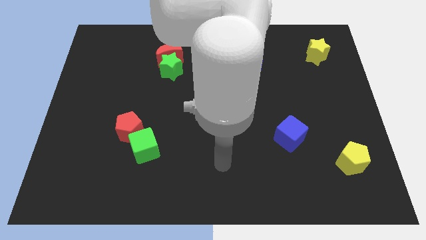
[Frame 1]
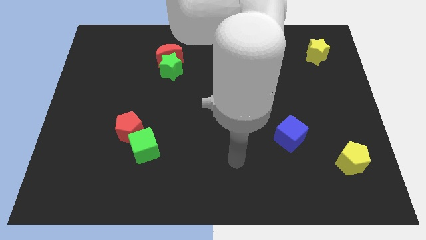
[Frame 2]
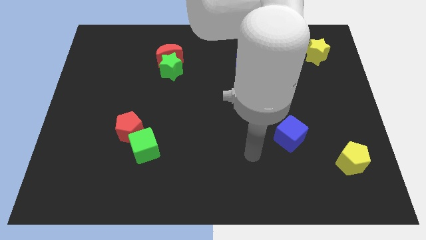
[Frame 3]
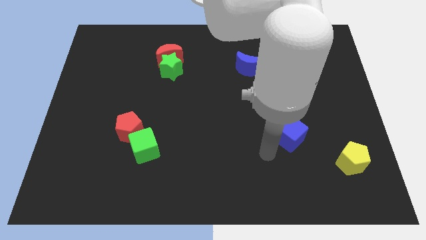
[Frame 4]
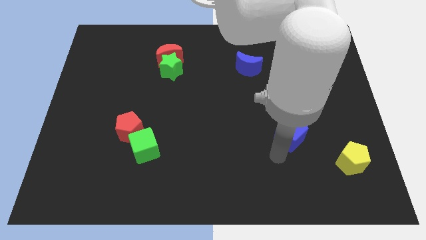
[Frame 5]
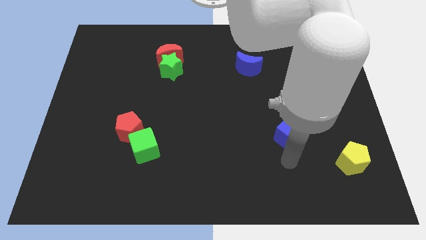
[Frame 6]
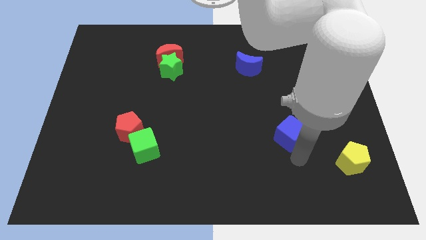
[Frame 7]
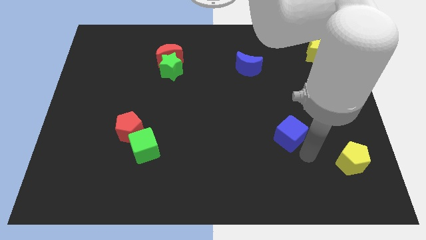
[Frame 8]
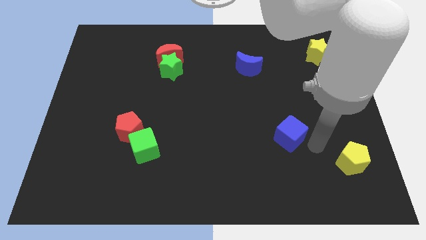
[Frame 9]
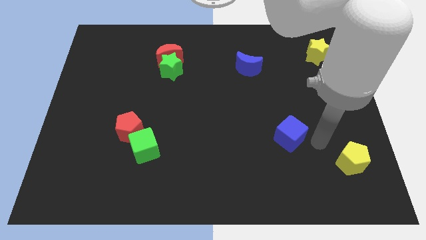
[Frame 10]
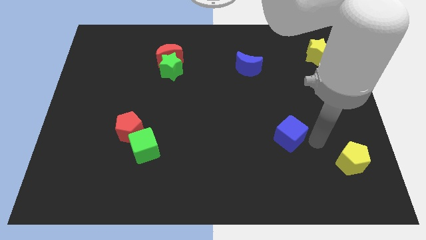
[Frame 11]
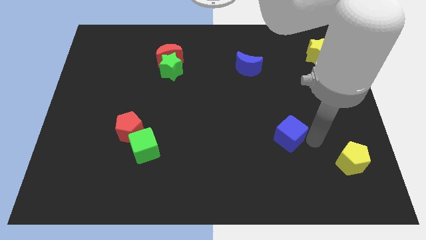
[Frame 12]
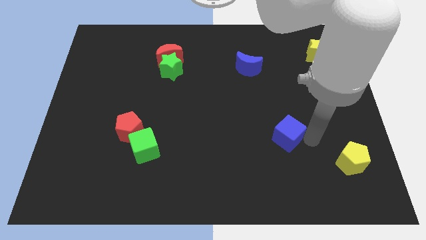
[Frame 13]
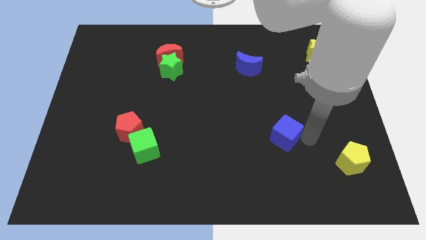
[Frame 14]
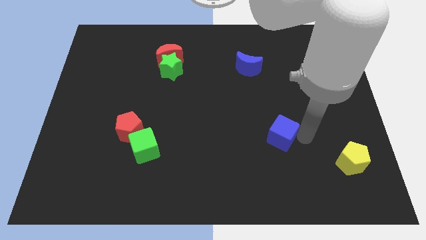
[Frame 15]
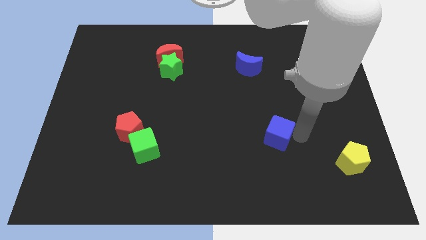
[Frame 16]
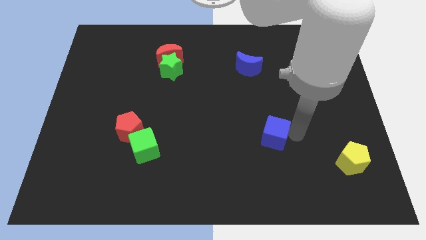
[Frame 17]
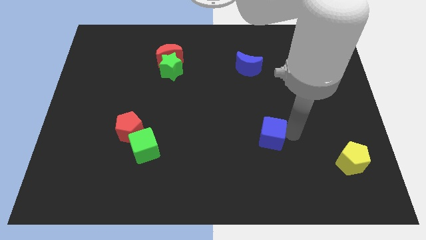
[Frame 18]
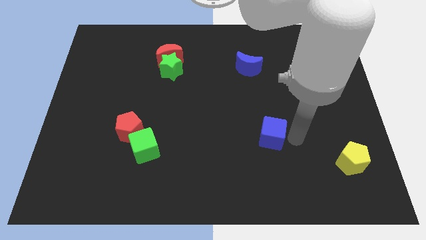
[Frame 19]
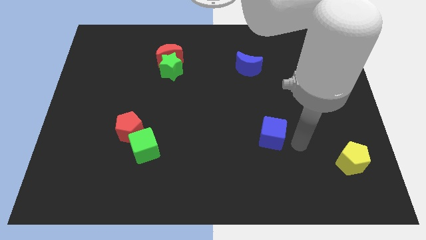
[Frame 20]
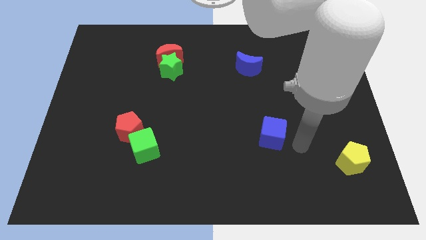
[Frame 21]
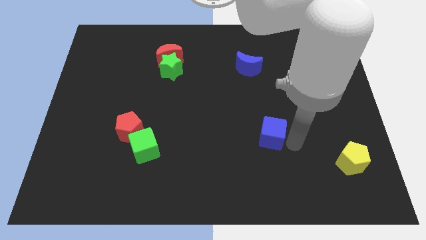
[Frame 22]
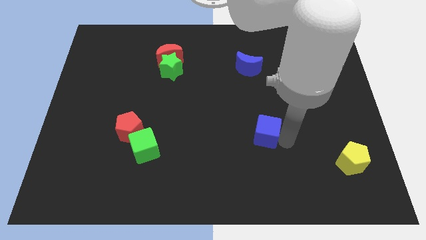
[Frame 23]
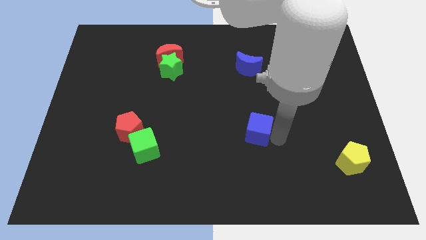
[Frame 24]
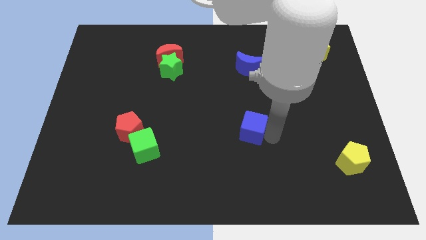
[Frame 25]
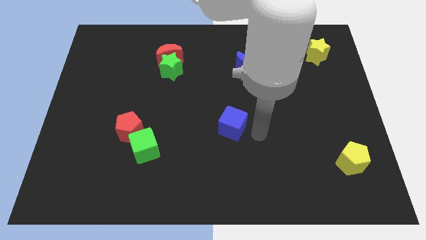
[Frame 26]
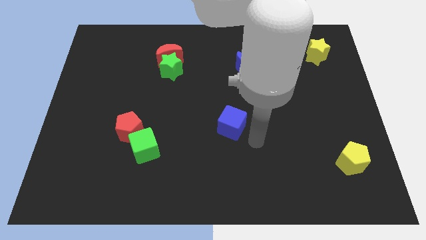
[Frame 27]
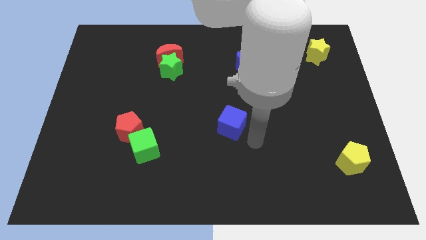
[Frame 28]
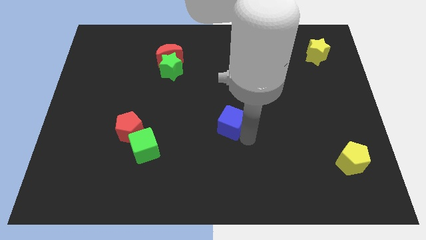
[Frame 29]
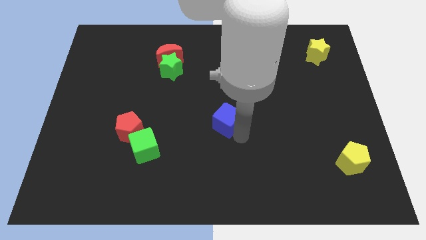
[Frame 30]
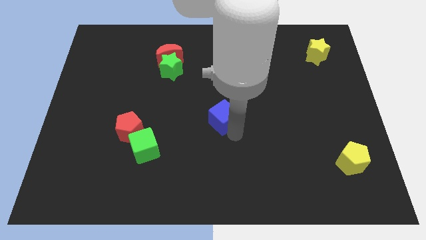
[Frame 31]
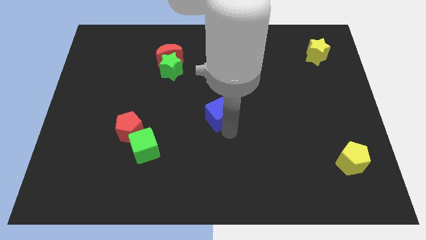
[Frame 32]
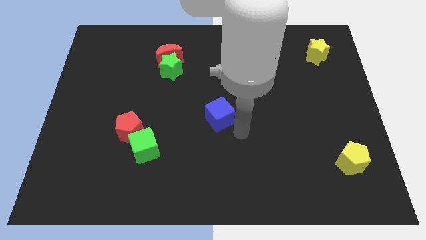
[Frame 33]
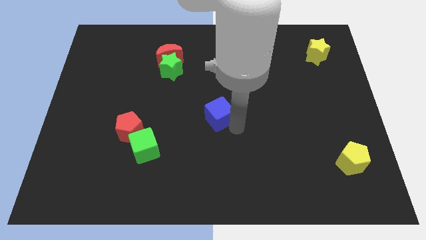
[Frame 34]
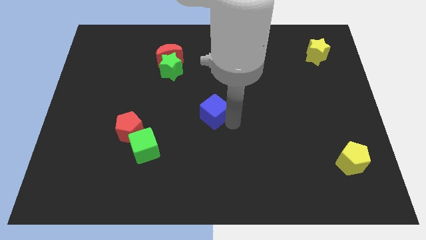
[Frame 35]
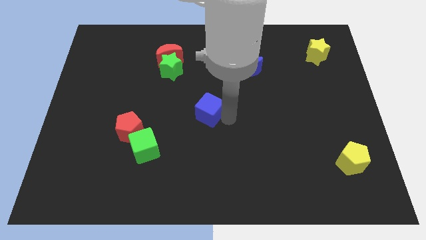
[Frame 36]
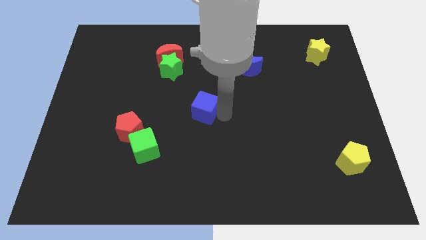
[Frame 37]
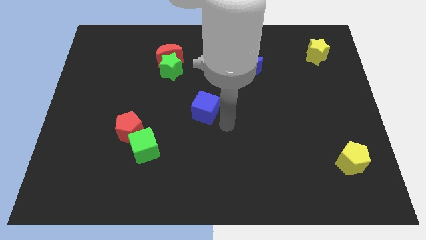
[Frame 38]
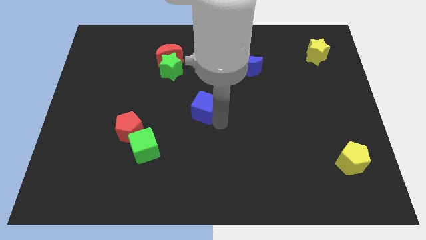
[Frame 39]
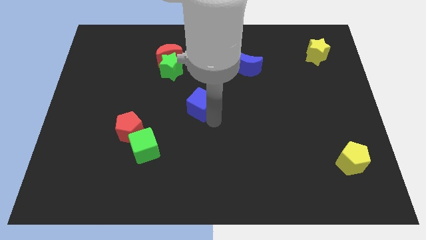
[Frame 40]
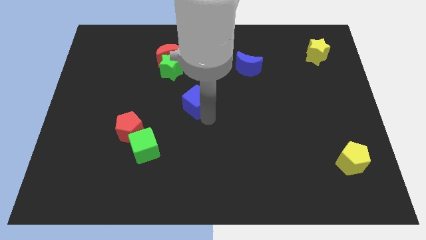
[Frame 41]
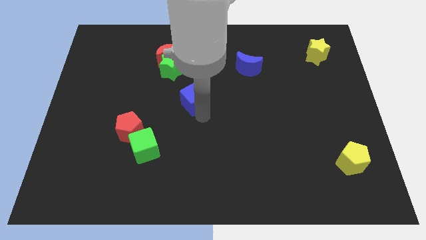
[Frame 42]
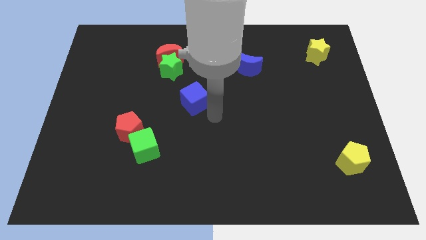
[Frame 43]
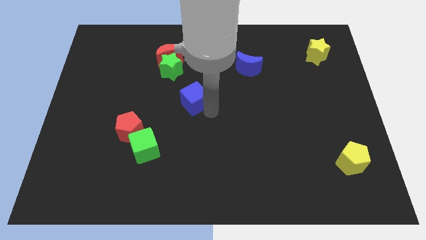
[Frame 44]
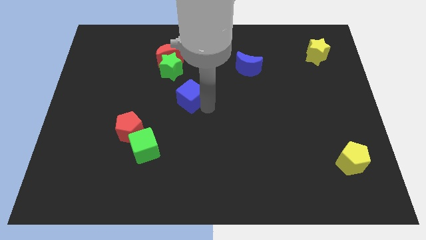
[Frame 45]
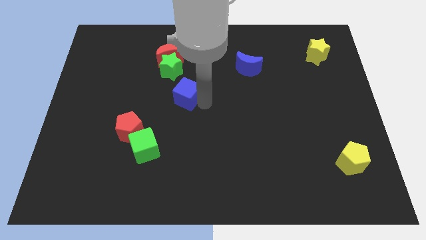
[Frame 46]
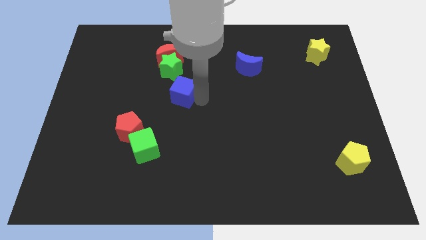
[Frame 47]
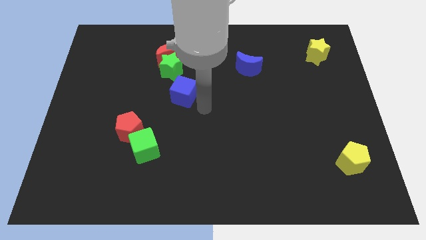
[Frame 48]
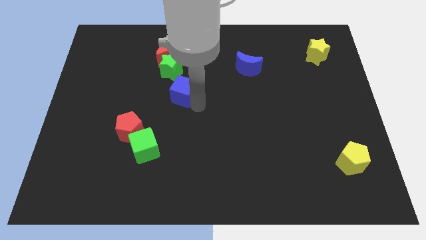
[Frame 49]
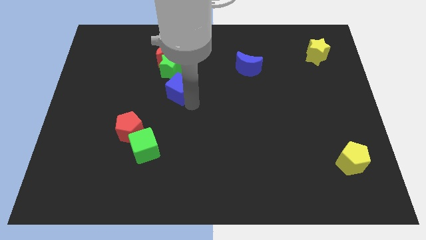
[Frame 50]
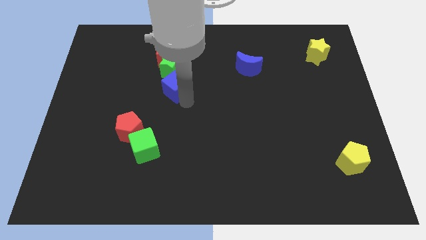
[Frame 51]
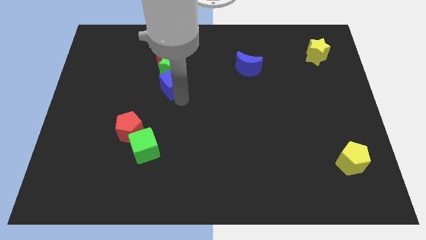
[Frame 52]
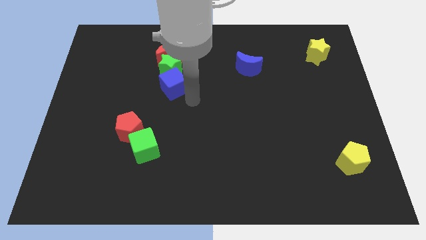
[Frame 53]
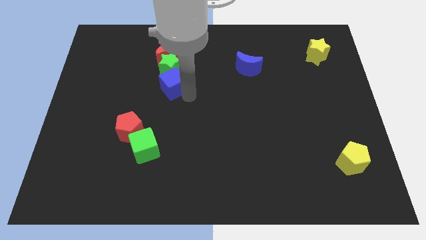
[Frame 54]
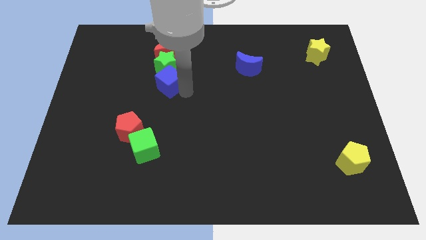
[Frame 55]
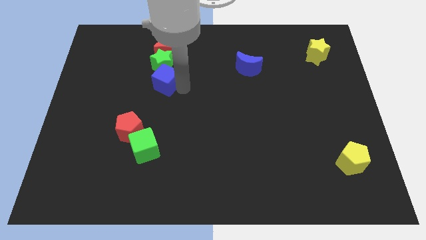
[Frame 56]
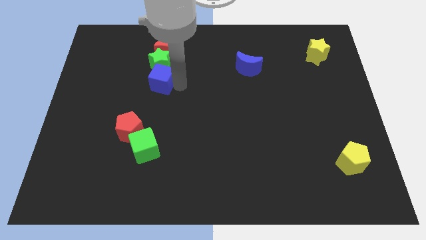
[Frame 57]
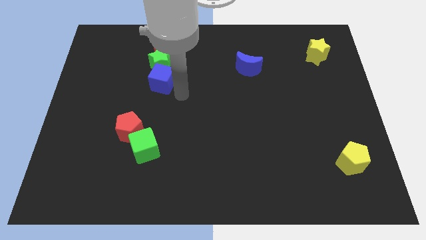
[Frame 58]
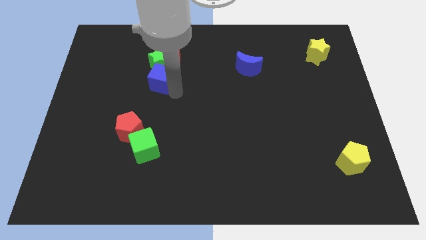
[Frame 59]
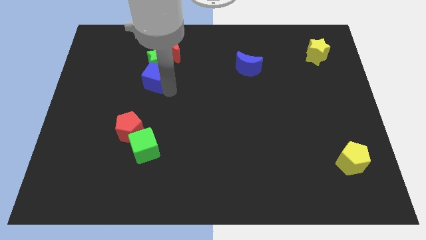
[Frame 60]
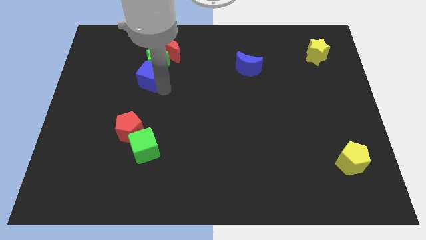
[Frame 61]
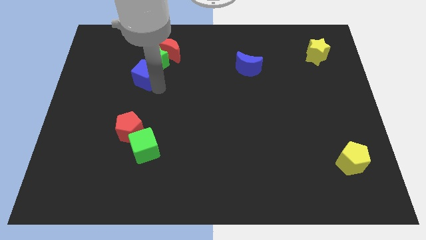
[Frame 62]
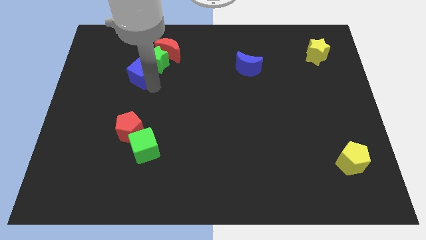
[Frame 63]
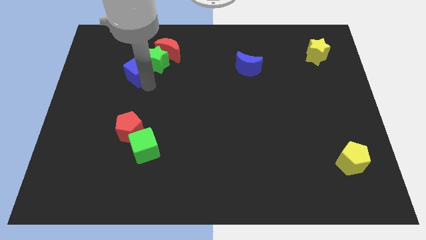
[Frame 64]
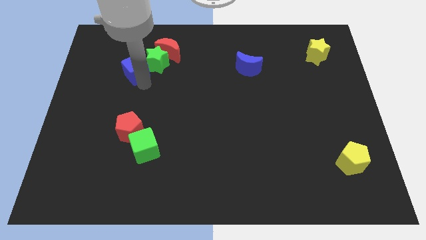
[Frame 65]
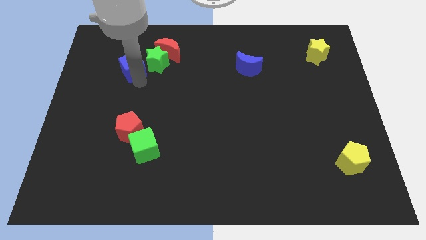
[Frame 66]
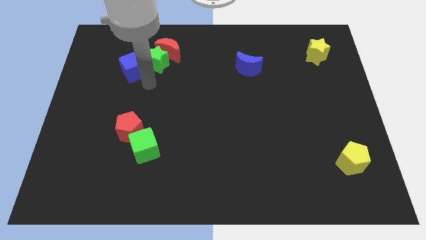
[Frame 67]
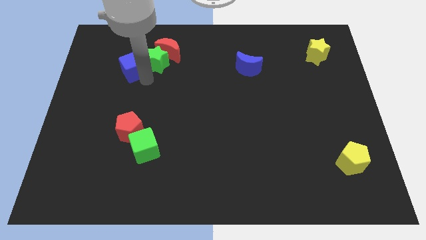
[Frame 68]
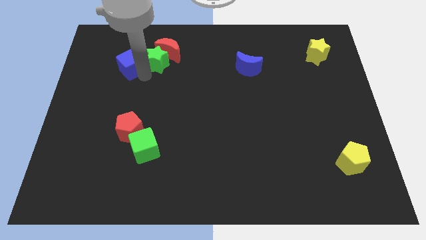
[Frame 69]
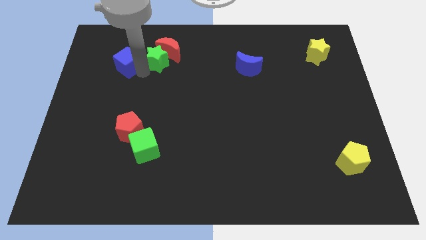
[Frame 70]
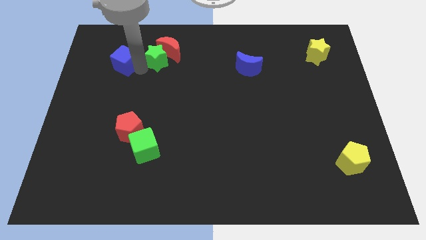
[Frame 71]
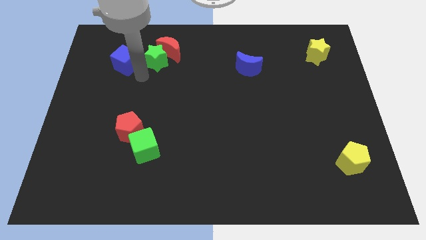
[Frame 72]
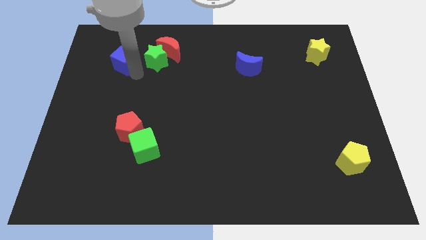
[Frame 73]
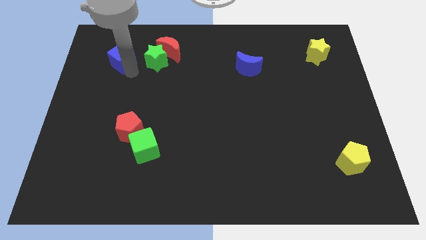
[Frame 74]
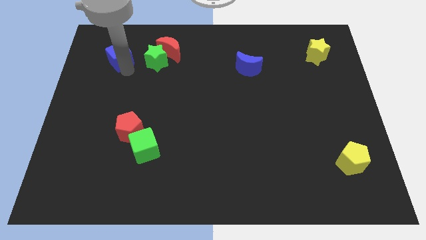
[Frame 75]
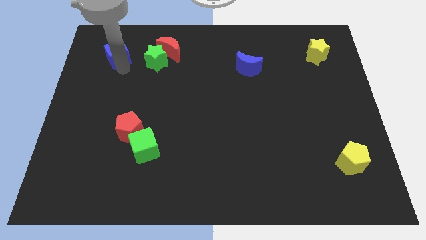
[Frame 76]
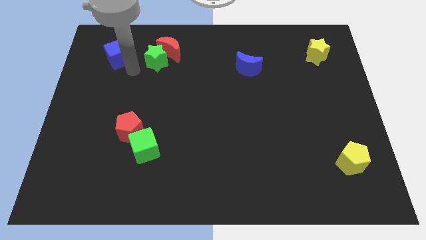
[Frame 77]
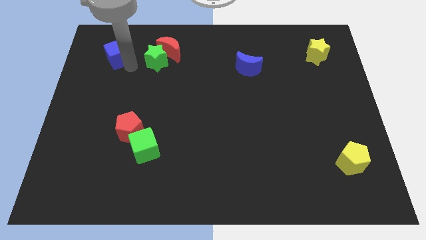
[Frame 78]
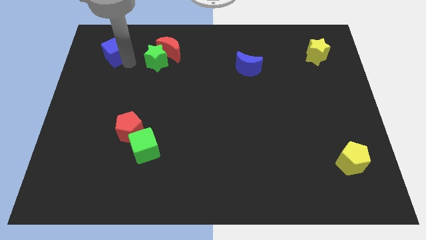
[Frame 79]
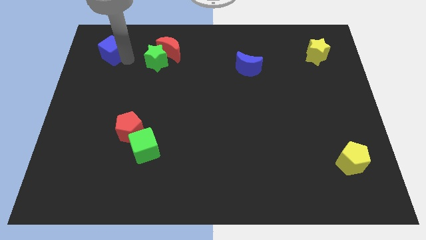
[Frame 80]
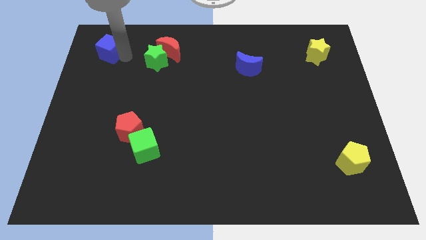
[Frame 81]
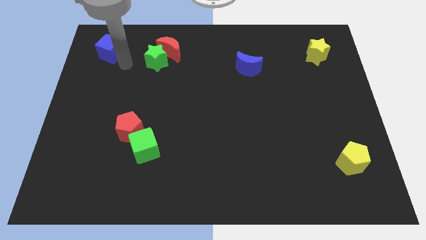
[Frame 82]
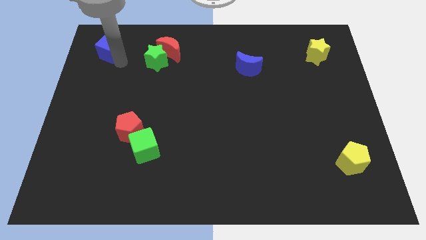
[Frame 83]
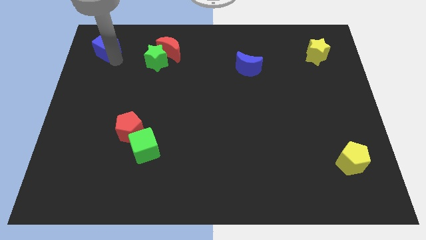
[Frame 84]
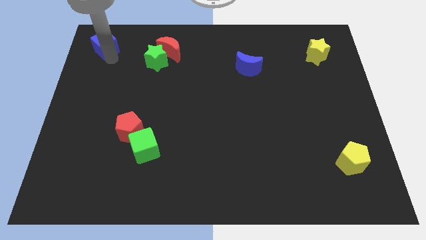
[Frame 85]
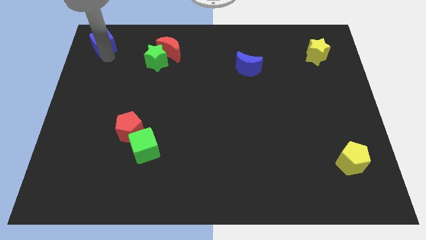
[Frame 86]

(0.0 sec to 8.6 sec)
put the blue cube to the top left of the board
